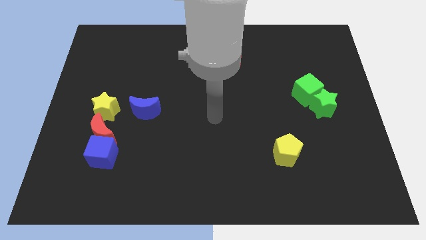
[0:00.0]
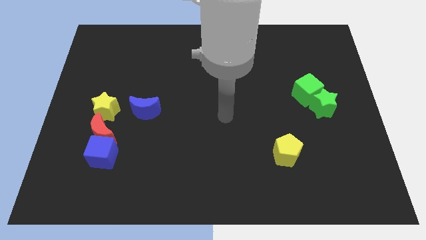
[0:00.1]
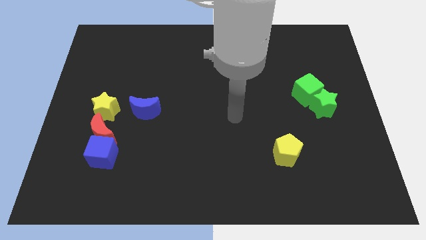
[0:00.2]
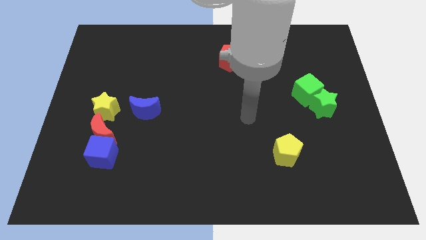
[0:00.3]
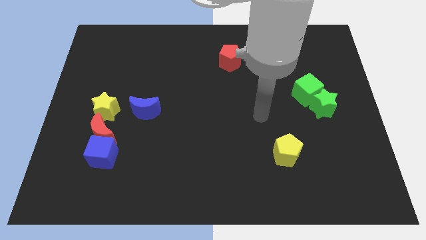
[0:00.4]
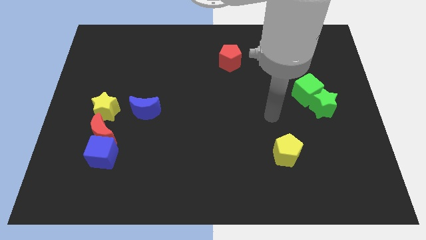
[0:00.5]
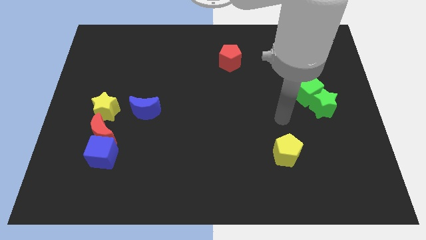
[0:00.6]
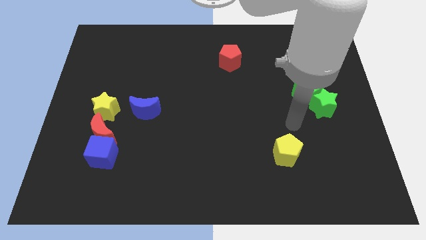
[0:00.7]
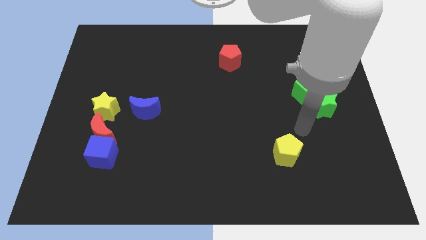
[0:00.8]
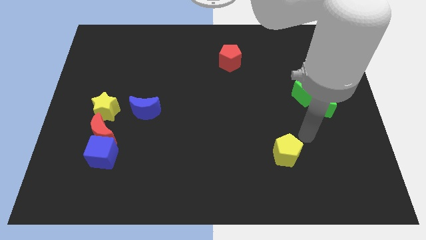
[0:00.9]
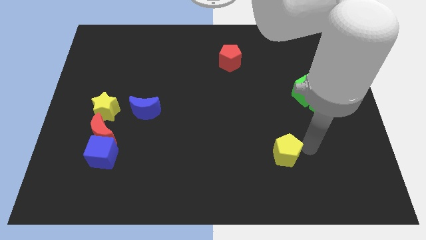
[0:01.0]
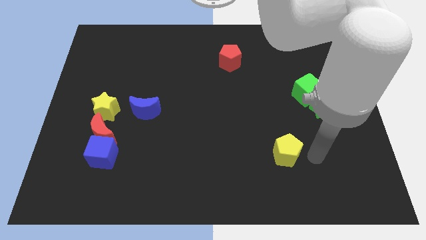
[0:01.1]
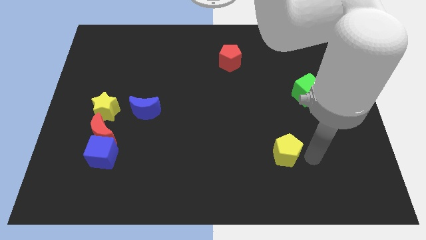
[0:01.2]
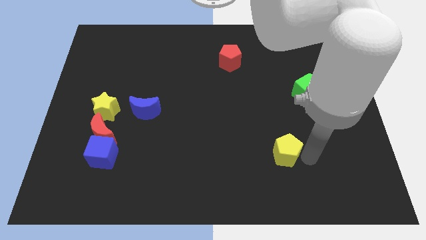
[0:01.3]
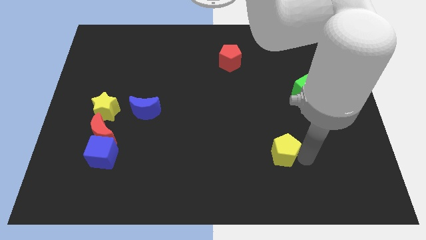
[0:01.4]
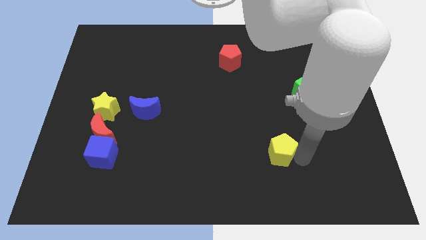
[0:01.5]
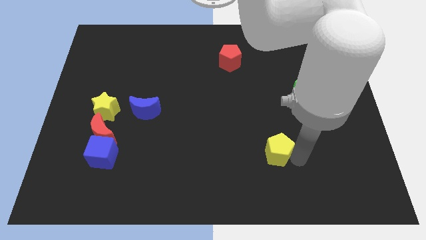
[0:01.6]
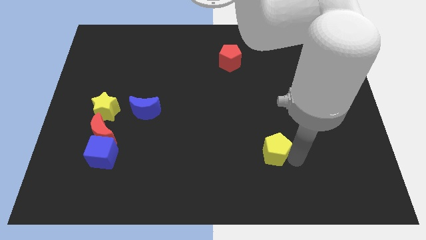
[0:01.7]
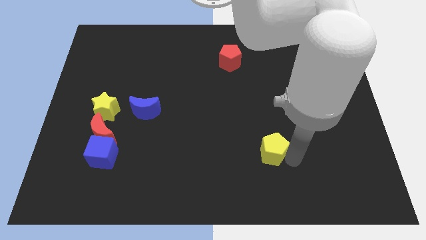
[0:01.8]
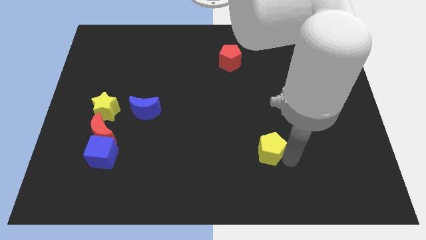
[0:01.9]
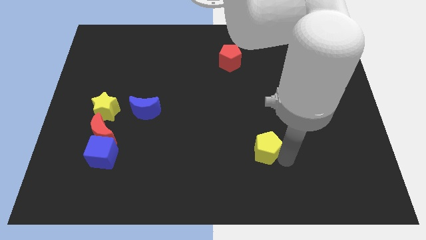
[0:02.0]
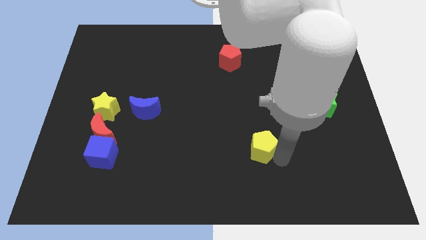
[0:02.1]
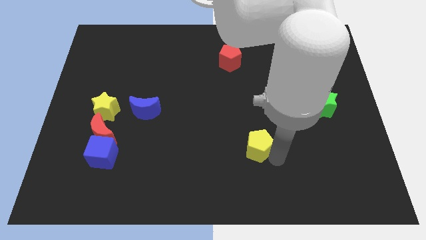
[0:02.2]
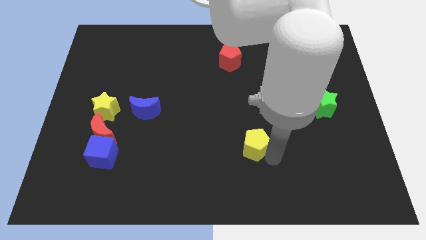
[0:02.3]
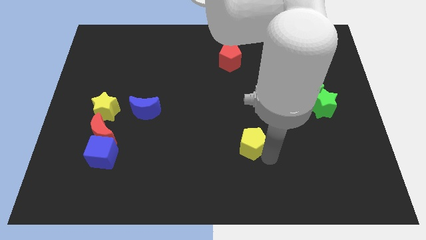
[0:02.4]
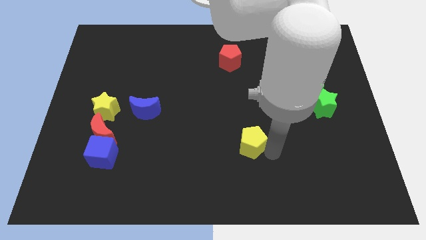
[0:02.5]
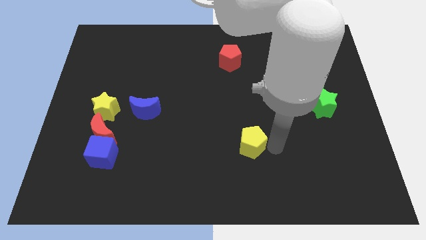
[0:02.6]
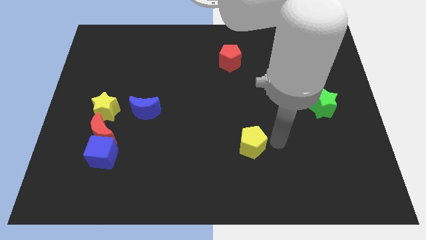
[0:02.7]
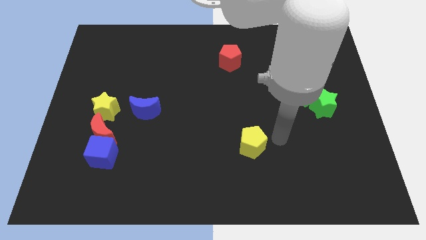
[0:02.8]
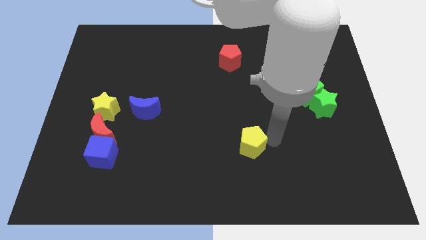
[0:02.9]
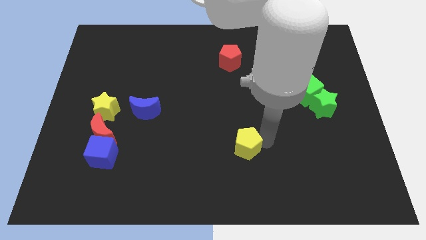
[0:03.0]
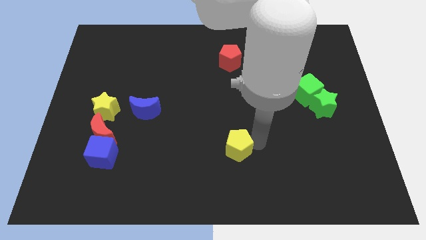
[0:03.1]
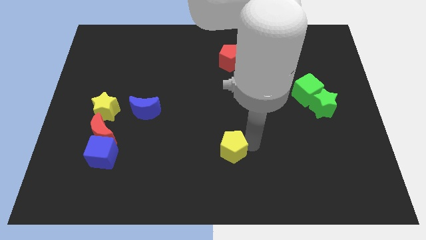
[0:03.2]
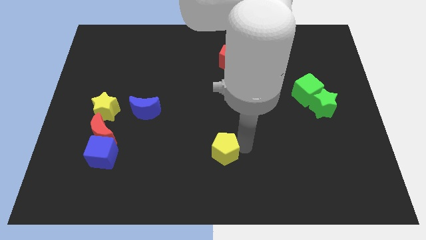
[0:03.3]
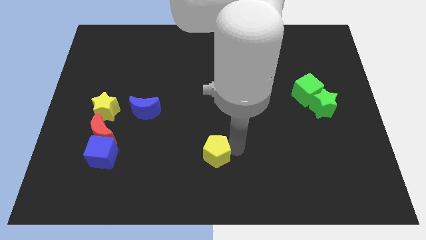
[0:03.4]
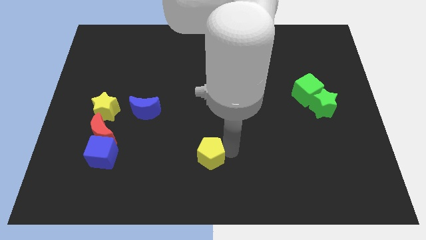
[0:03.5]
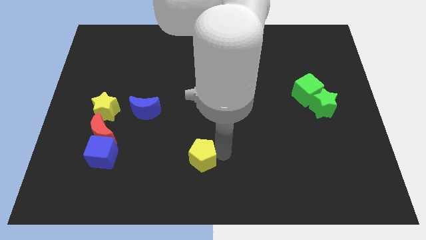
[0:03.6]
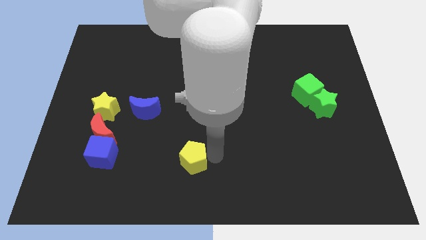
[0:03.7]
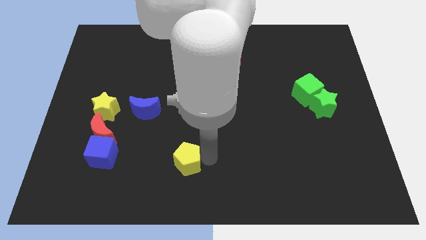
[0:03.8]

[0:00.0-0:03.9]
push the yellow pentagon to the left

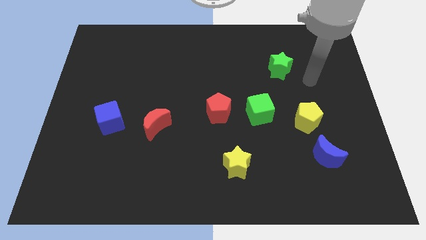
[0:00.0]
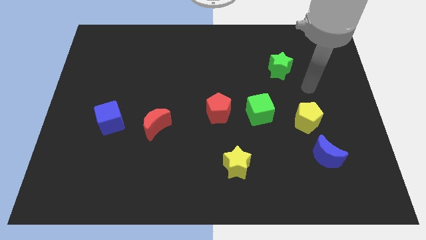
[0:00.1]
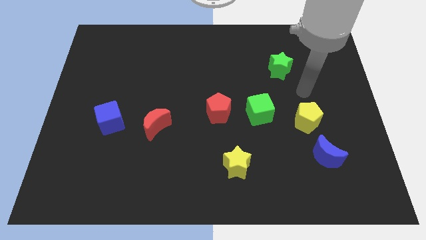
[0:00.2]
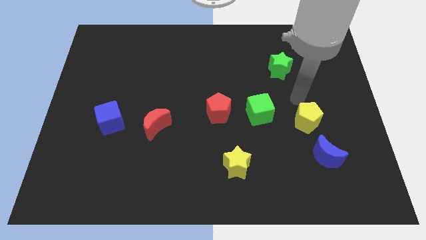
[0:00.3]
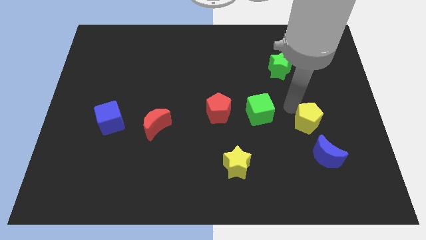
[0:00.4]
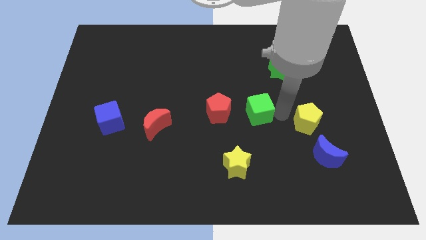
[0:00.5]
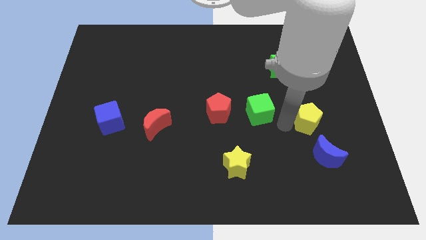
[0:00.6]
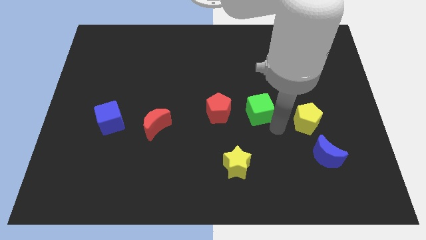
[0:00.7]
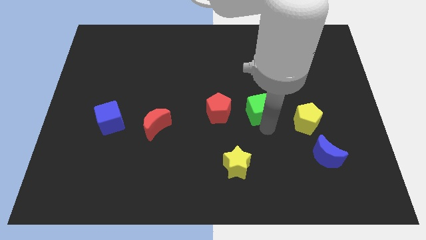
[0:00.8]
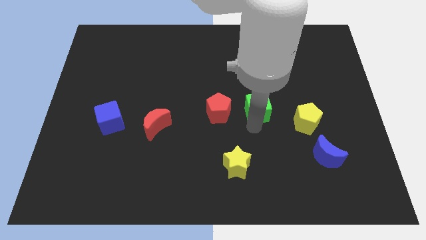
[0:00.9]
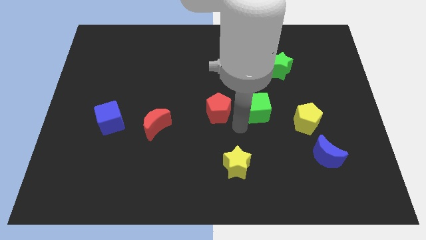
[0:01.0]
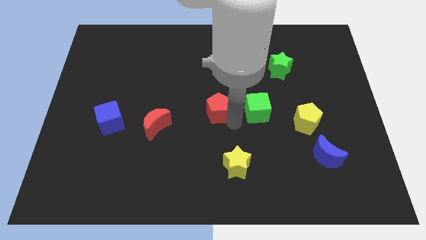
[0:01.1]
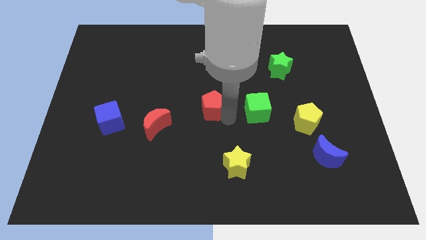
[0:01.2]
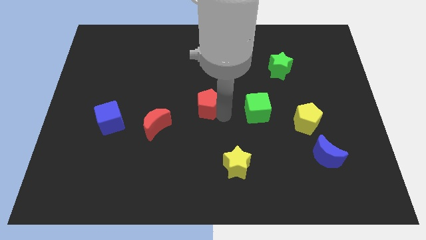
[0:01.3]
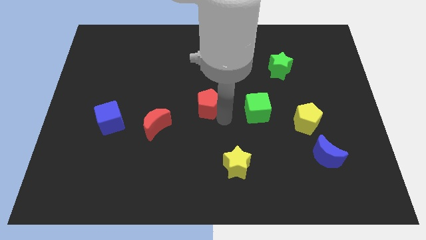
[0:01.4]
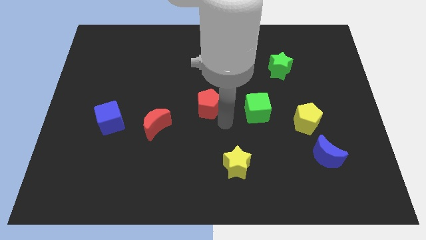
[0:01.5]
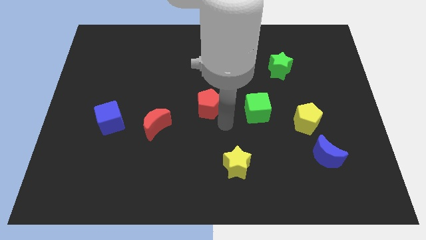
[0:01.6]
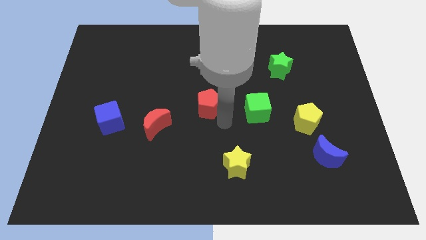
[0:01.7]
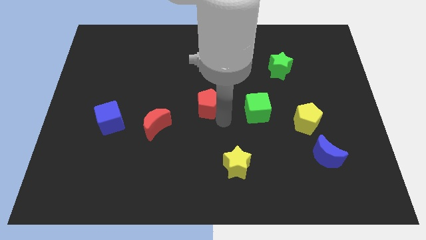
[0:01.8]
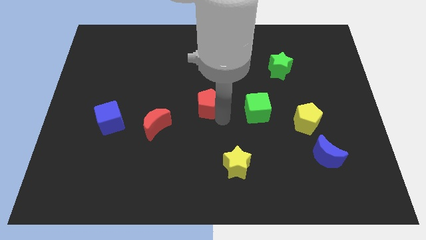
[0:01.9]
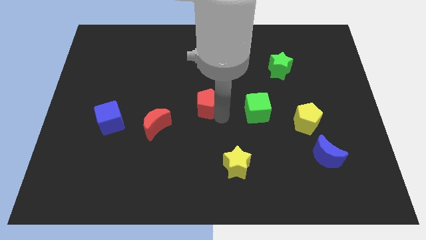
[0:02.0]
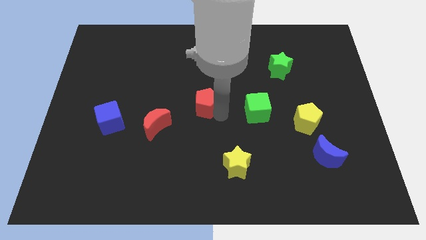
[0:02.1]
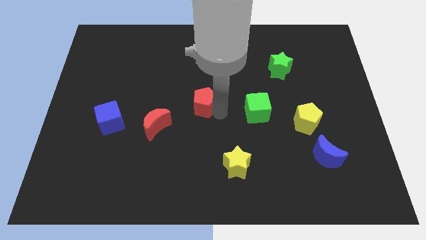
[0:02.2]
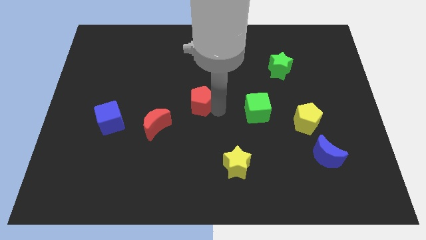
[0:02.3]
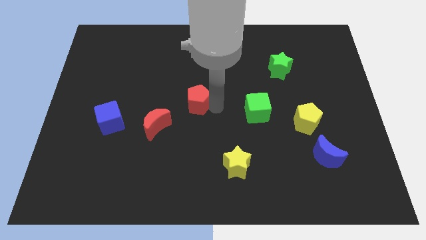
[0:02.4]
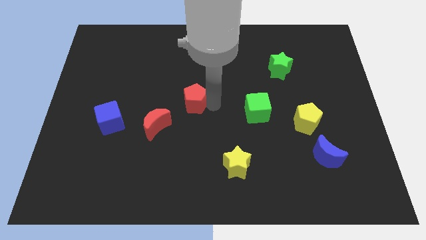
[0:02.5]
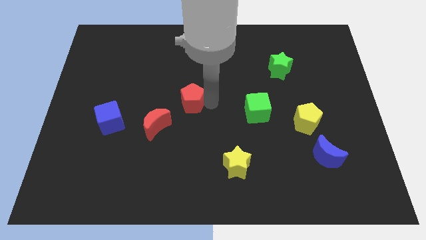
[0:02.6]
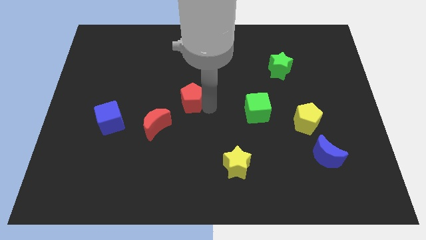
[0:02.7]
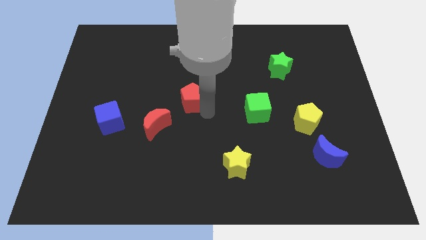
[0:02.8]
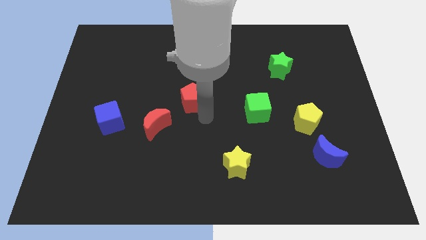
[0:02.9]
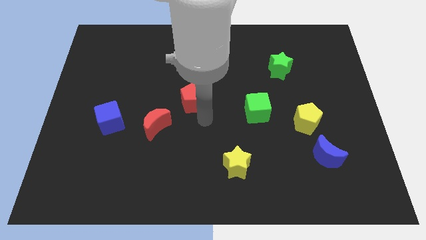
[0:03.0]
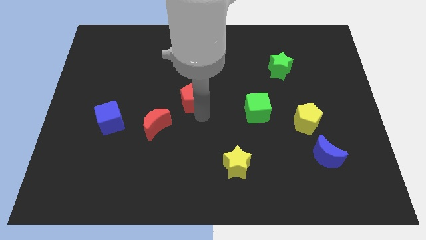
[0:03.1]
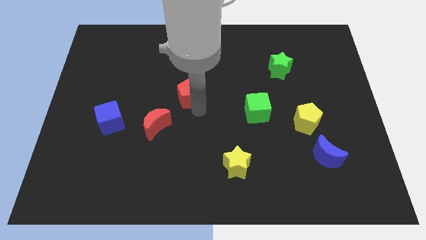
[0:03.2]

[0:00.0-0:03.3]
move the red pentagon up and then left a bit

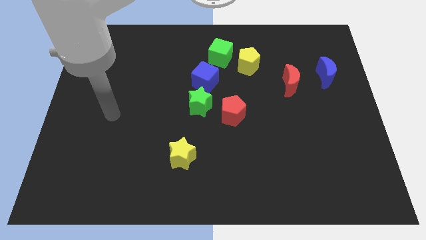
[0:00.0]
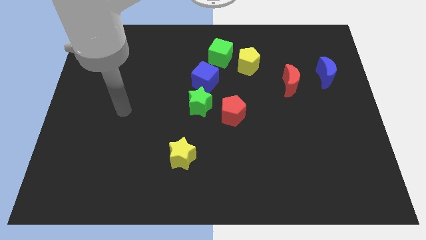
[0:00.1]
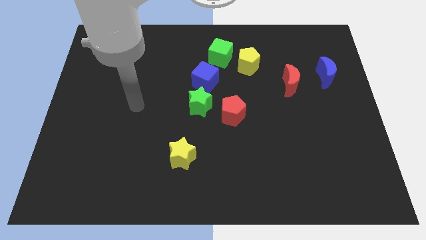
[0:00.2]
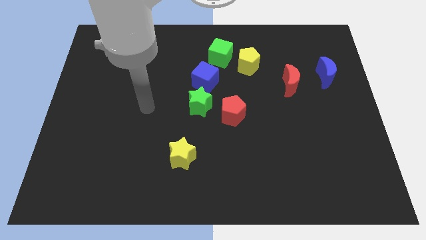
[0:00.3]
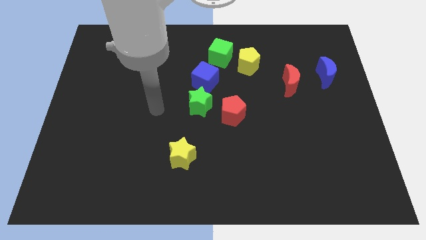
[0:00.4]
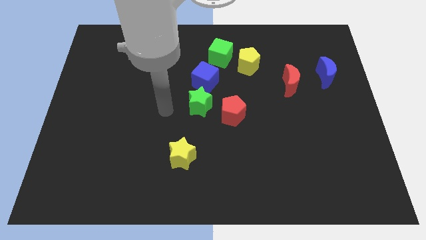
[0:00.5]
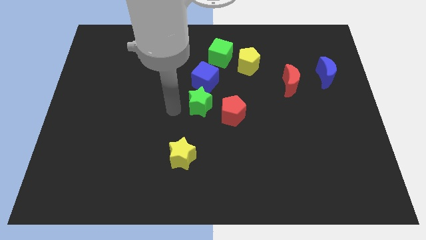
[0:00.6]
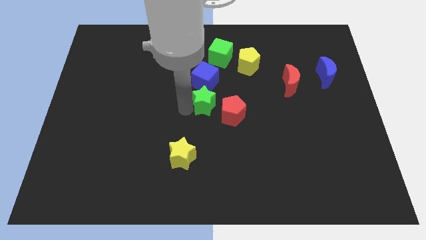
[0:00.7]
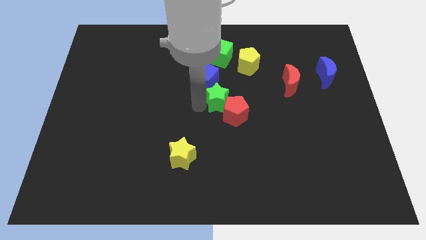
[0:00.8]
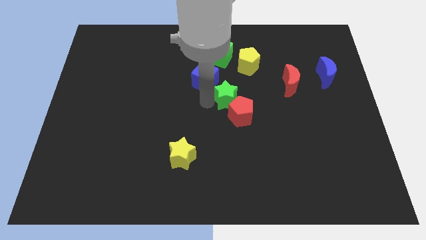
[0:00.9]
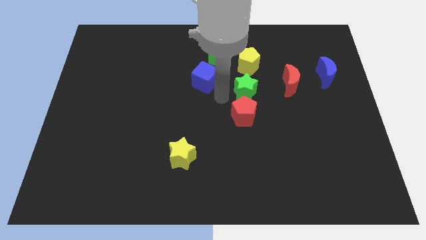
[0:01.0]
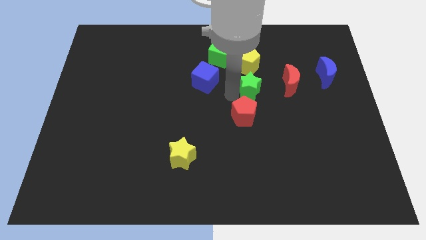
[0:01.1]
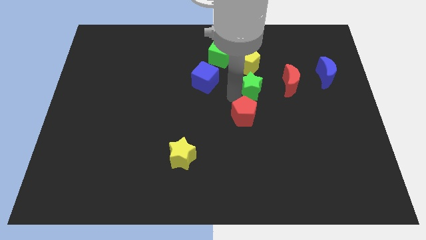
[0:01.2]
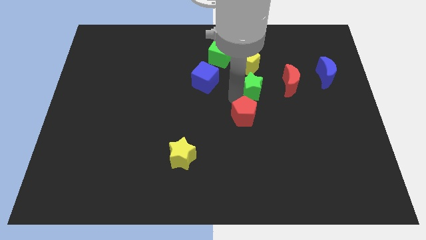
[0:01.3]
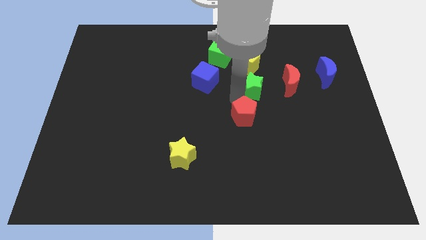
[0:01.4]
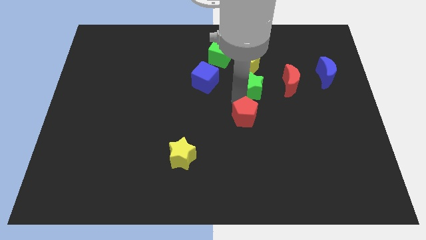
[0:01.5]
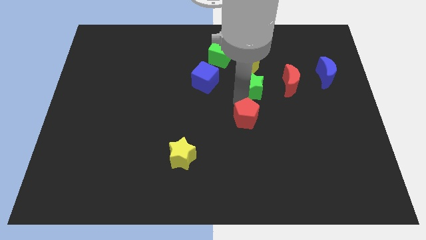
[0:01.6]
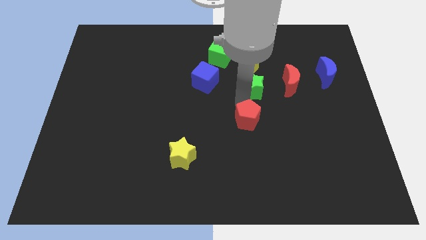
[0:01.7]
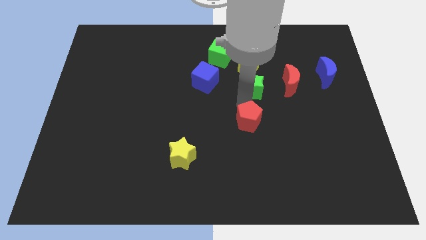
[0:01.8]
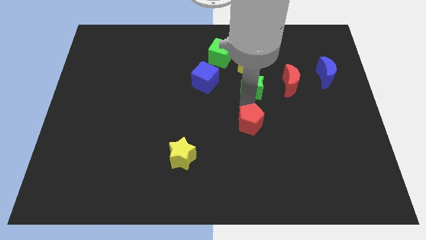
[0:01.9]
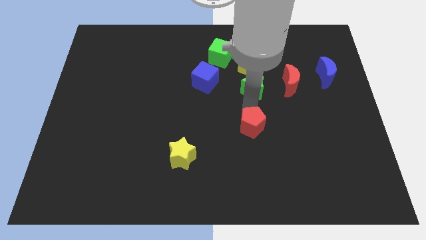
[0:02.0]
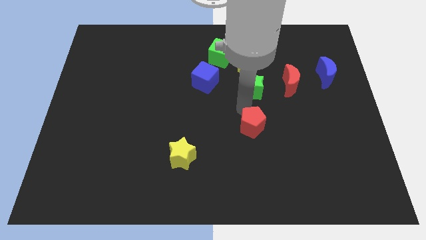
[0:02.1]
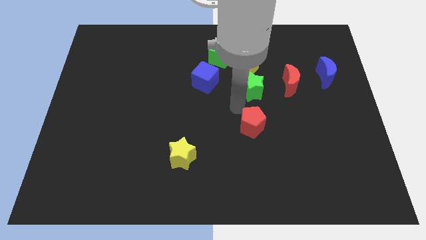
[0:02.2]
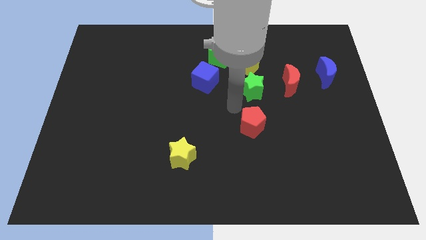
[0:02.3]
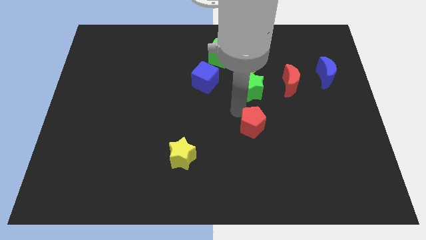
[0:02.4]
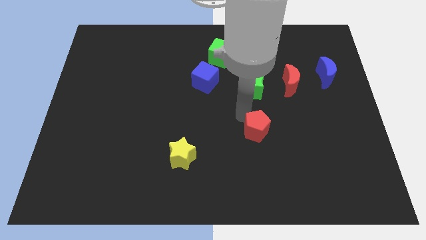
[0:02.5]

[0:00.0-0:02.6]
slide the red pentagon somewhat diagonally downwards and to the right
